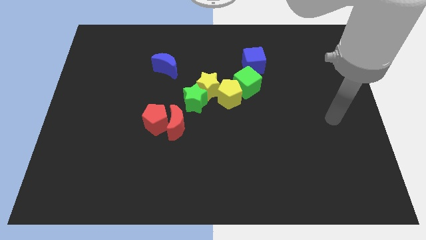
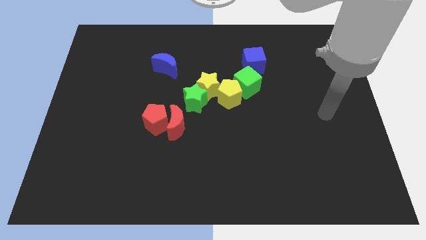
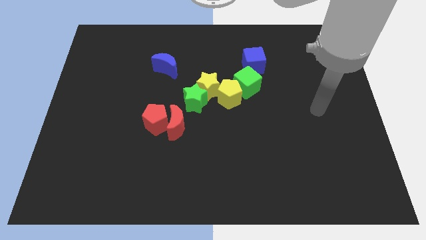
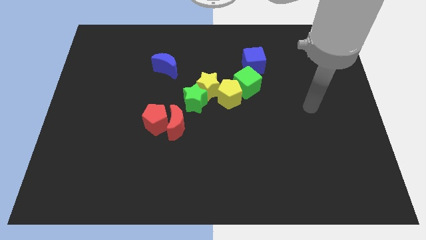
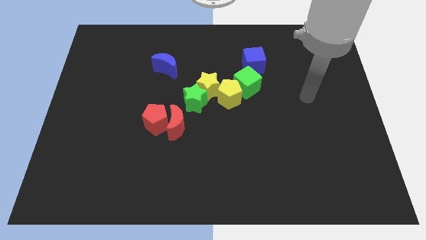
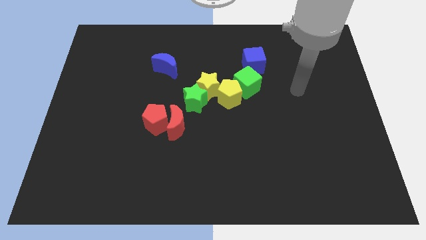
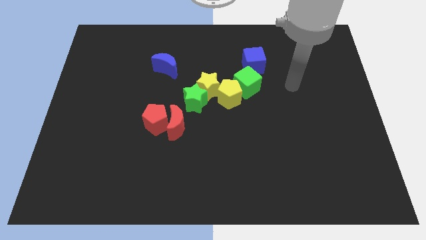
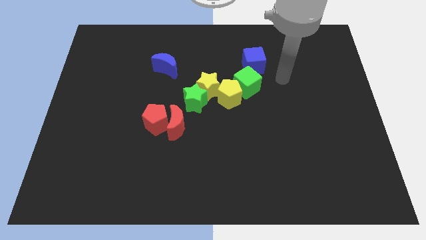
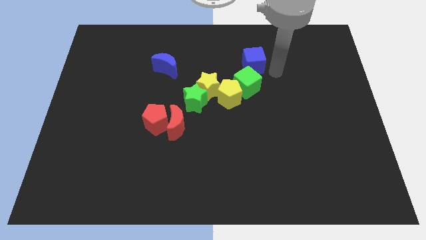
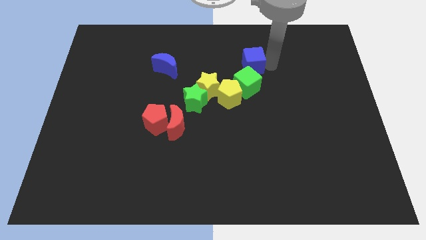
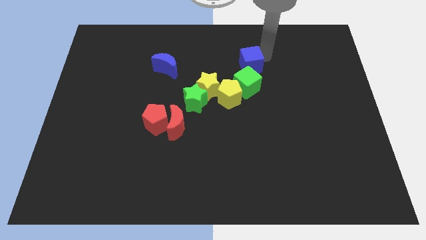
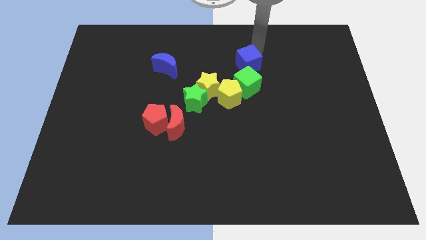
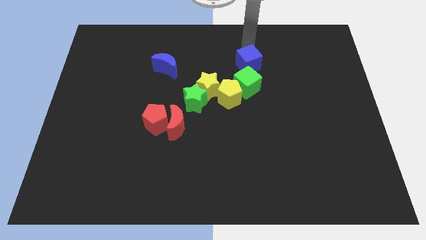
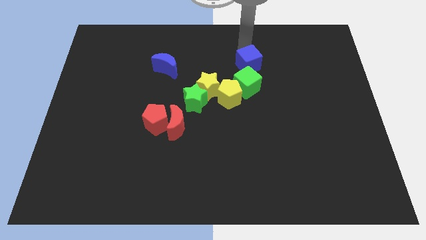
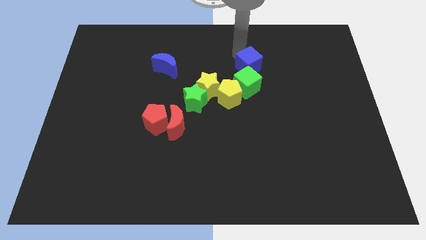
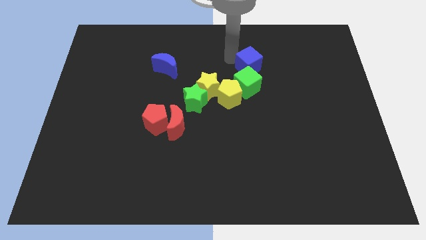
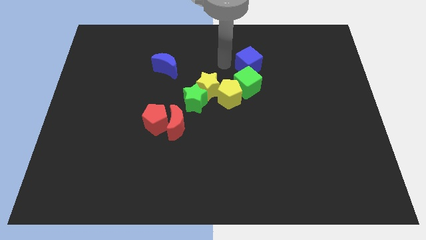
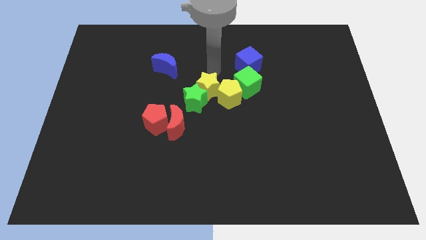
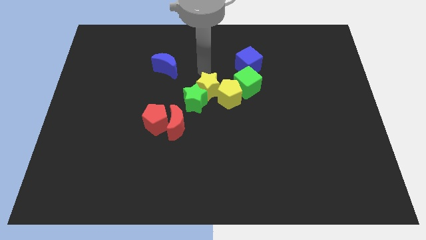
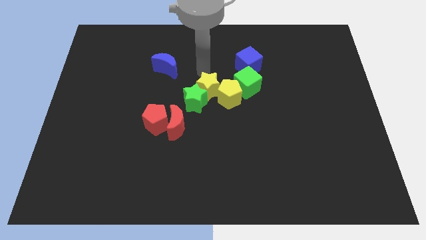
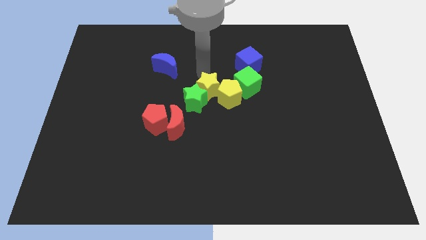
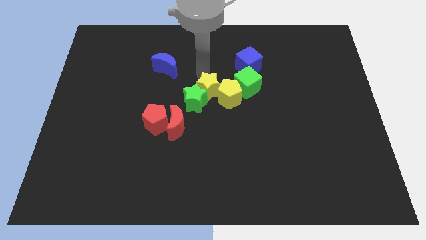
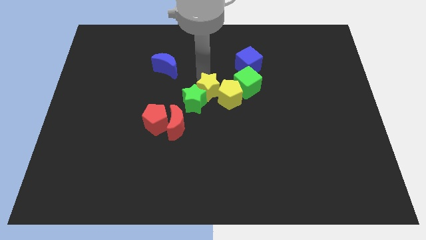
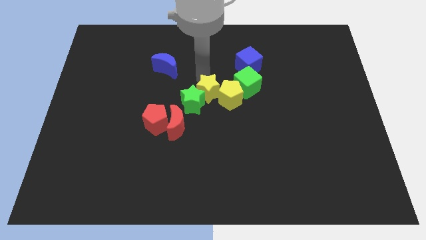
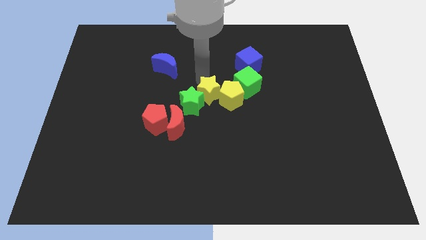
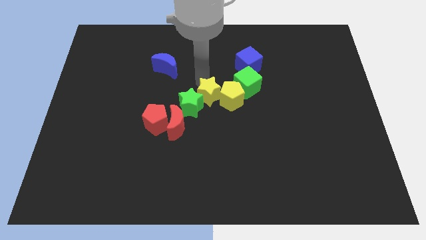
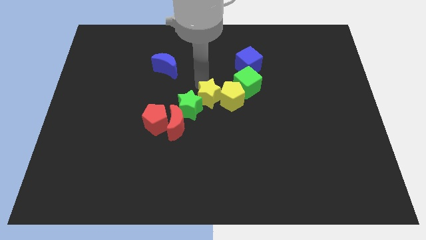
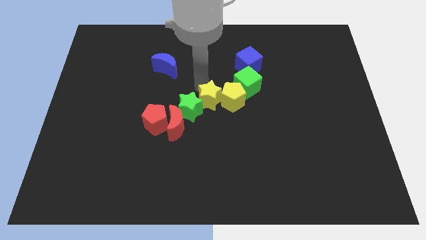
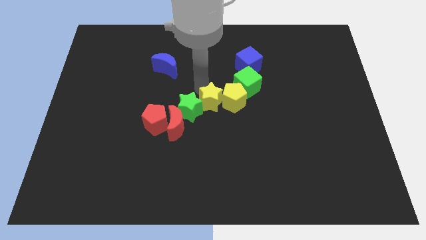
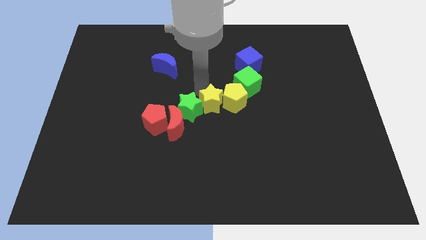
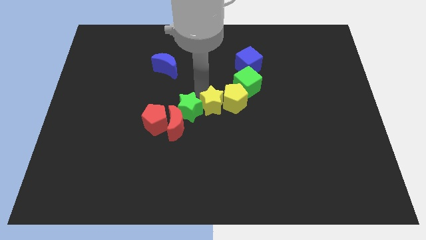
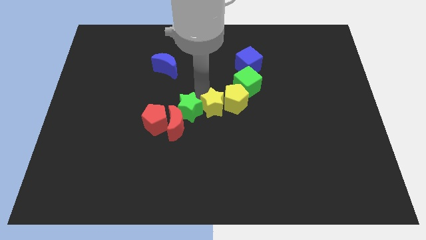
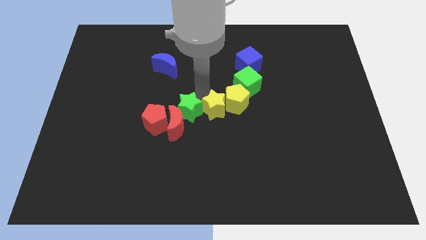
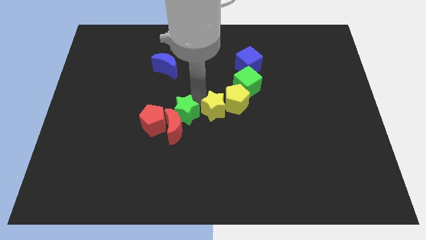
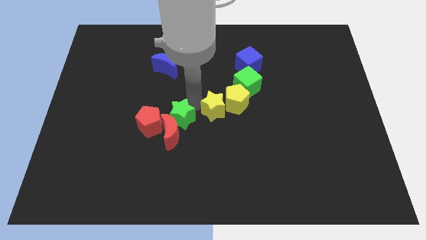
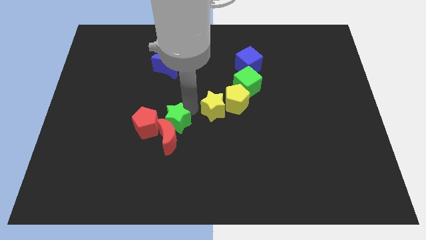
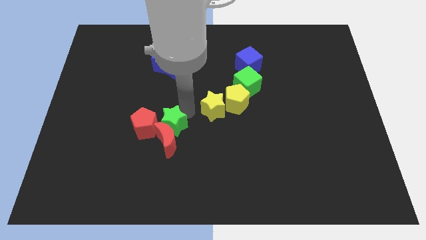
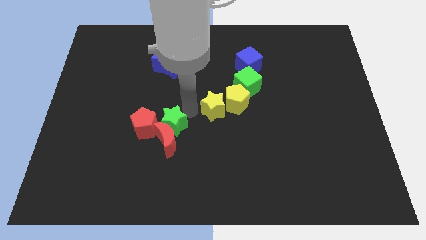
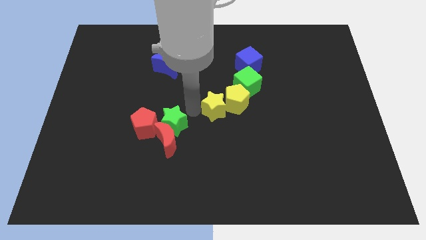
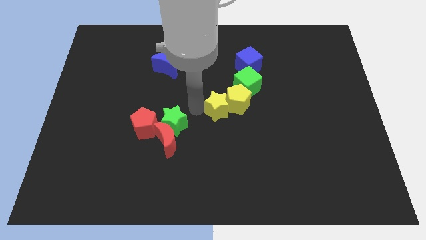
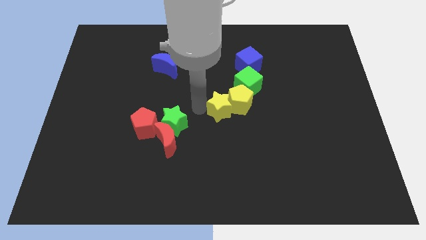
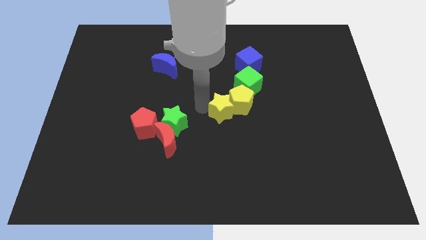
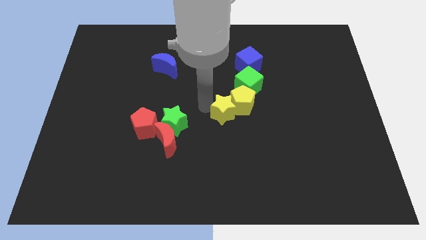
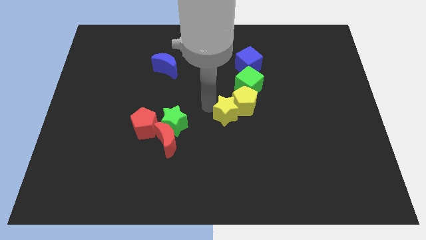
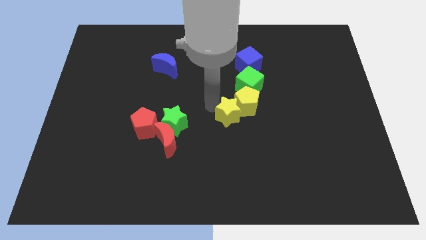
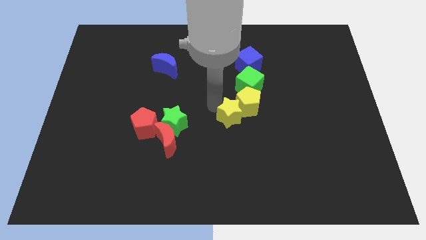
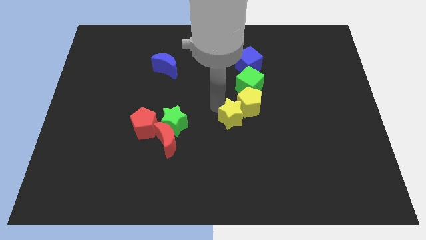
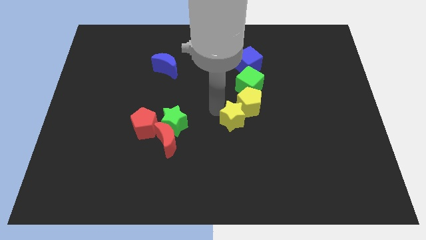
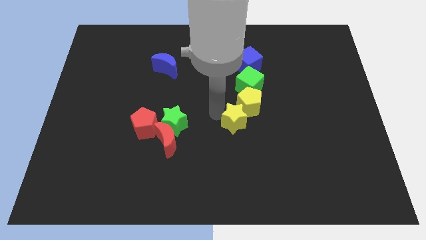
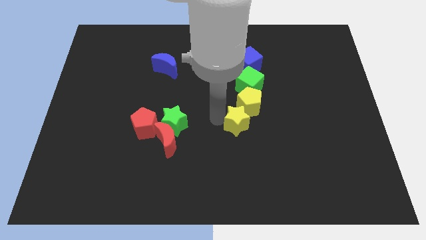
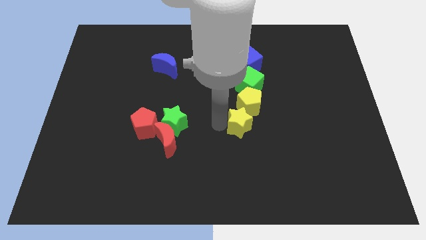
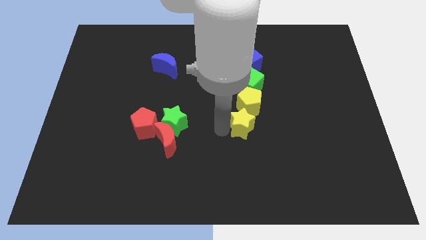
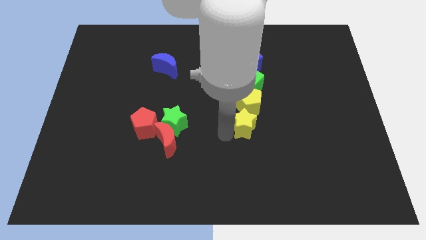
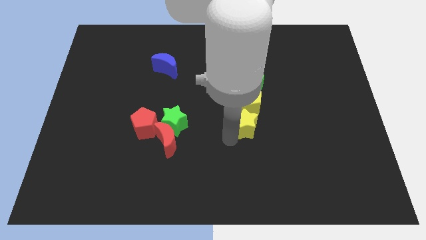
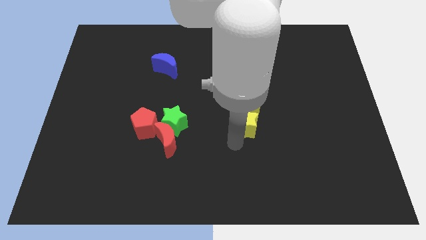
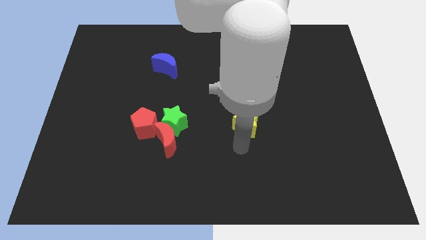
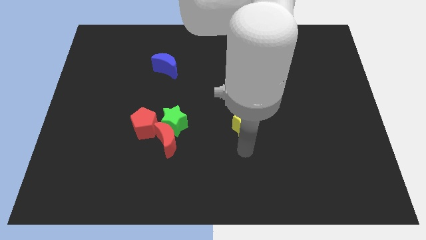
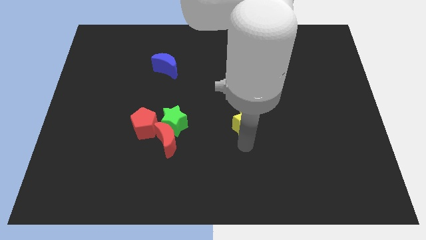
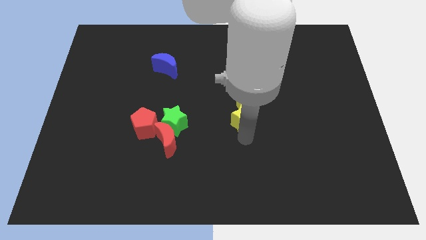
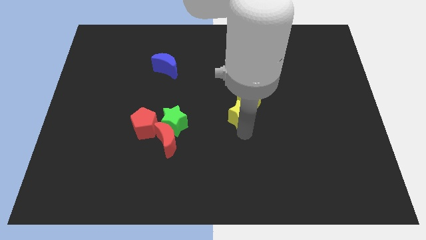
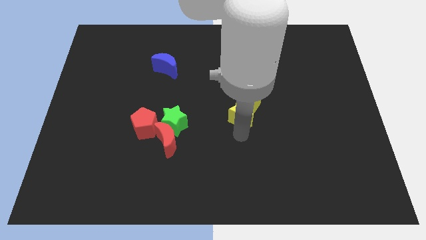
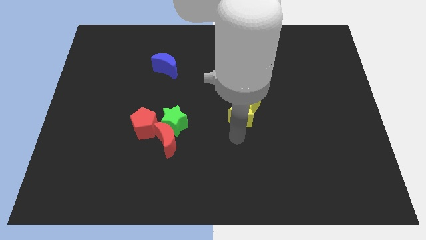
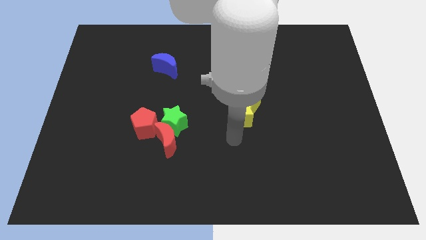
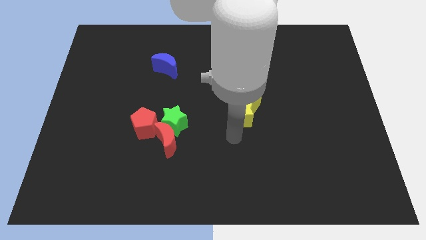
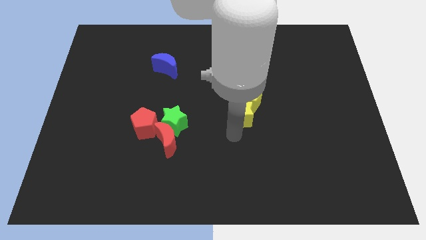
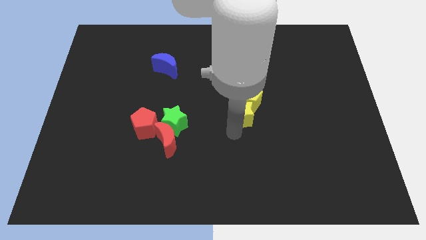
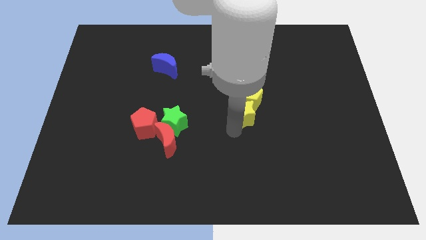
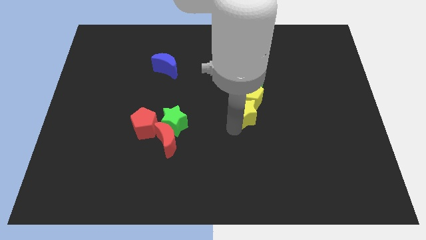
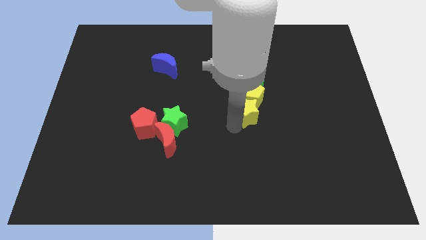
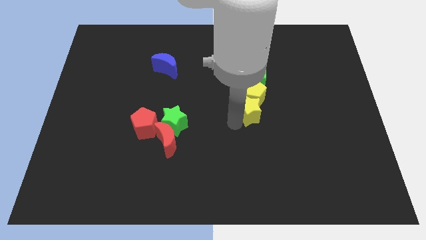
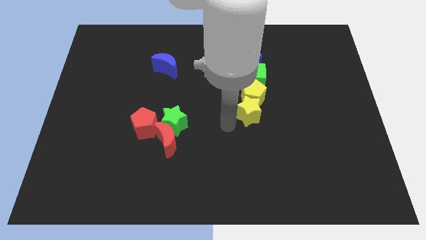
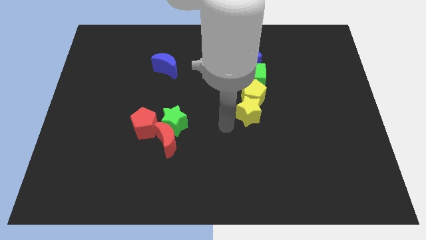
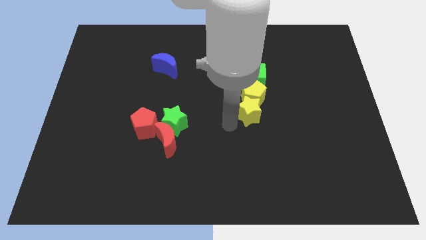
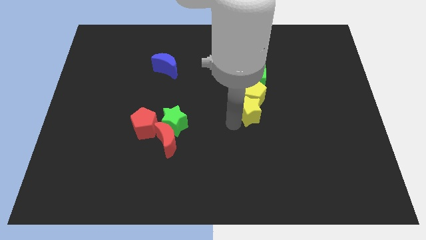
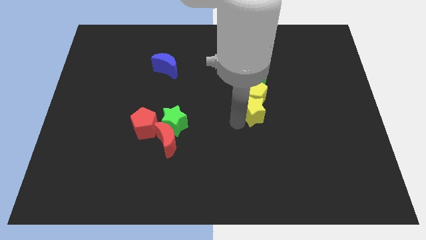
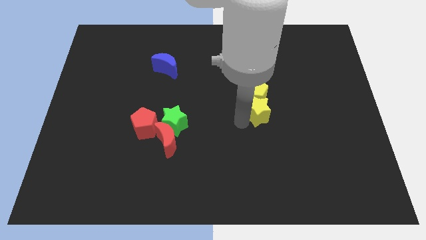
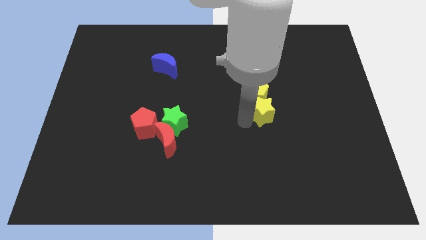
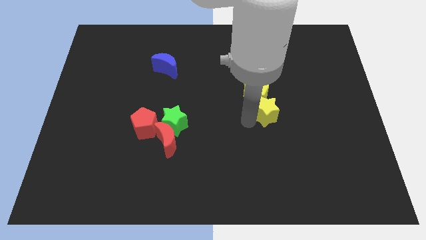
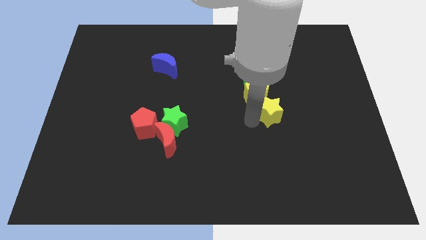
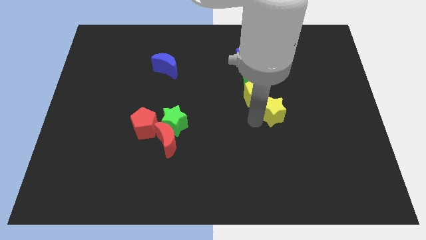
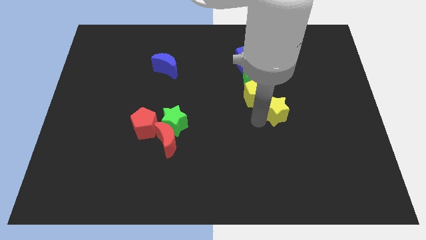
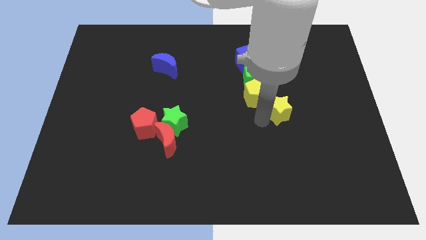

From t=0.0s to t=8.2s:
put the yellow star to the bottom right of the green cube

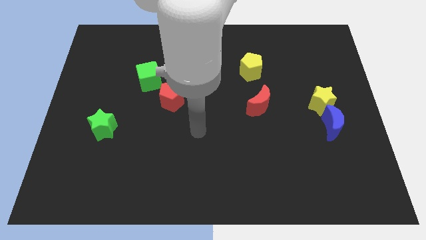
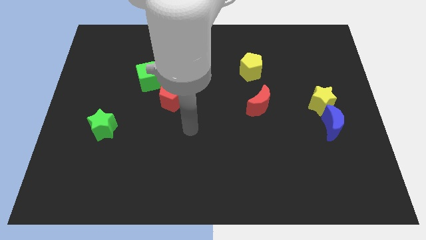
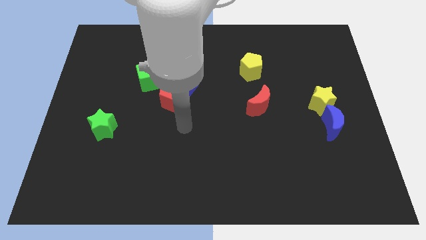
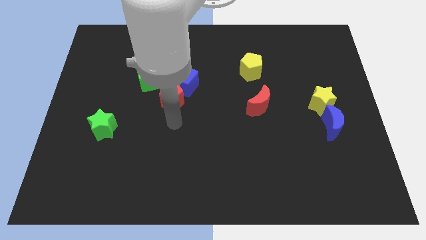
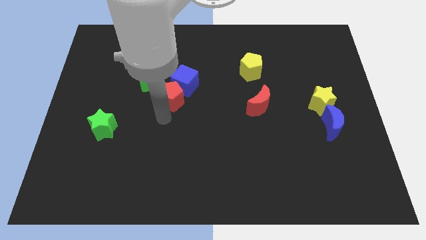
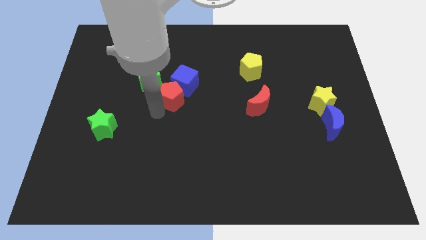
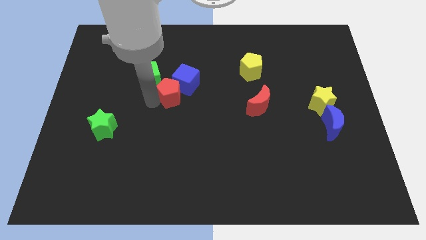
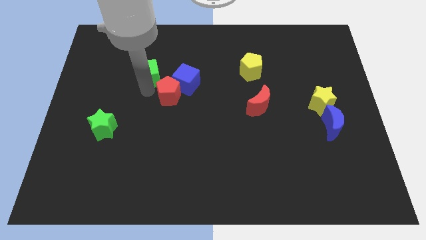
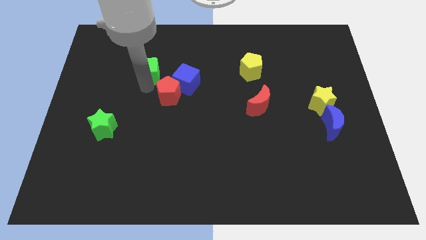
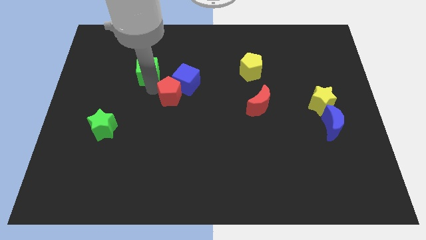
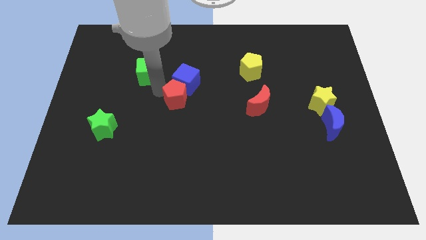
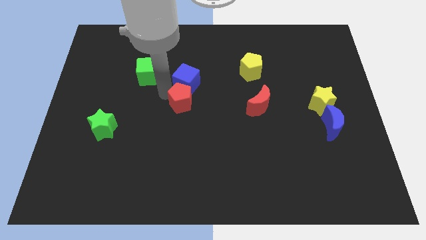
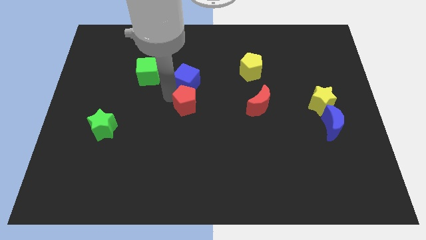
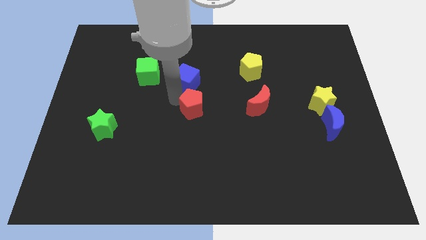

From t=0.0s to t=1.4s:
move the red pentagon just left of the red moon
